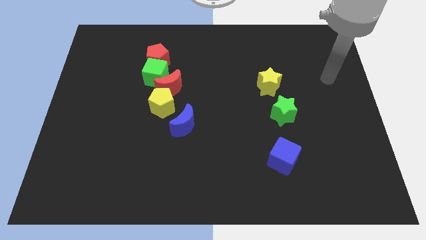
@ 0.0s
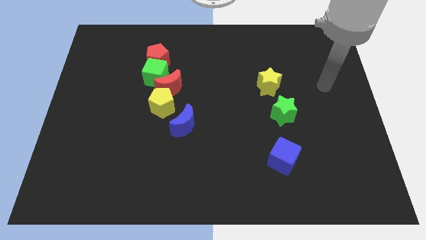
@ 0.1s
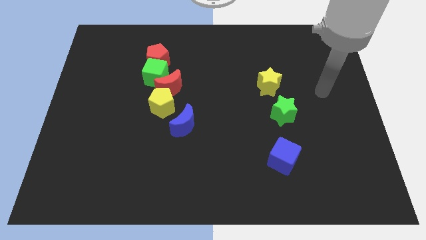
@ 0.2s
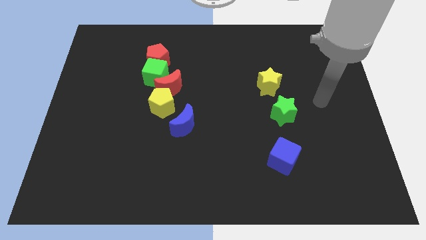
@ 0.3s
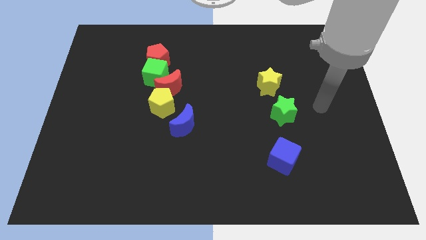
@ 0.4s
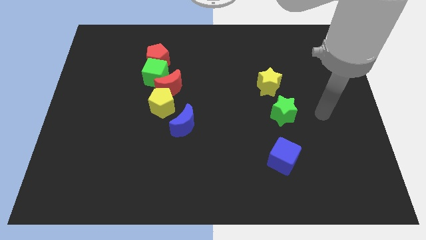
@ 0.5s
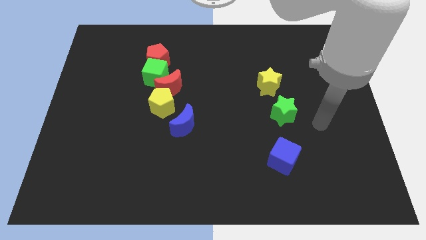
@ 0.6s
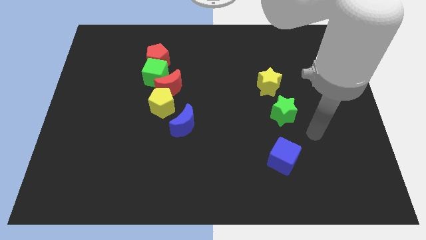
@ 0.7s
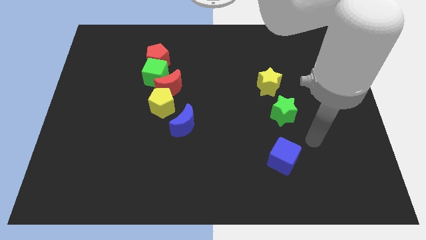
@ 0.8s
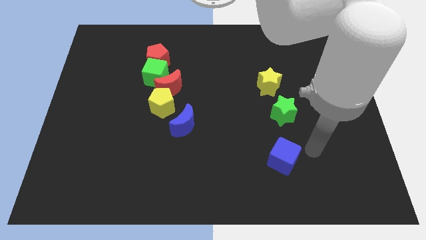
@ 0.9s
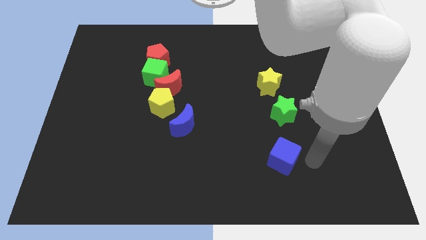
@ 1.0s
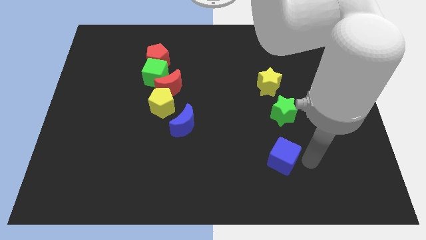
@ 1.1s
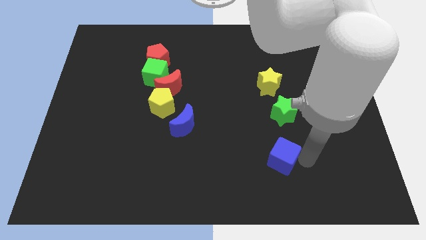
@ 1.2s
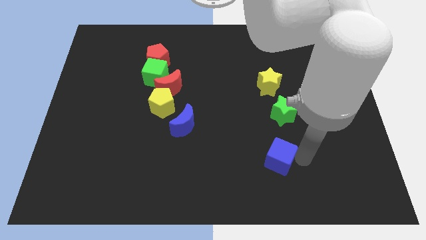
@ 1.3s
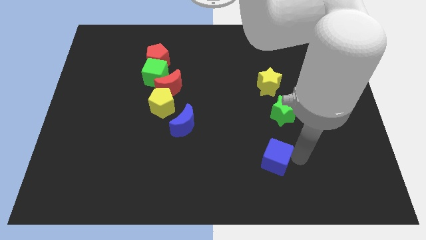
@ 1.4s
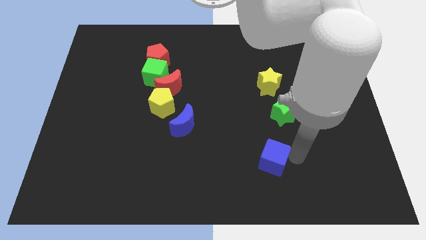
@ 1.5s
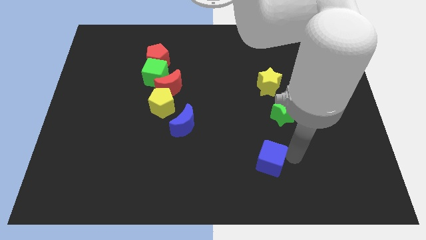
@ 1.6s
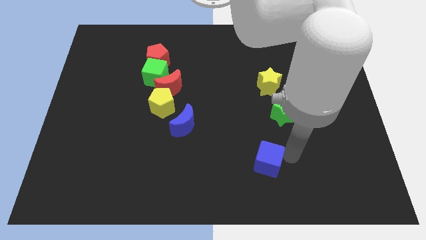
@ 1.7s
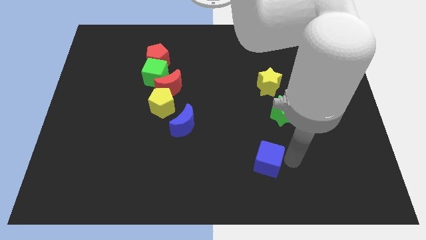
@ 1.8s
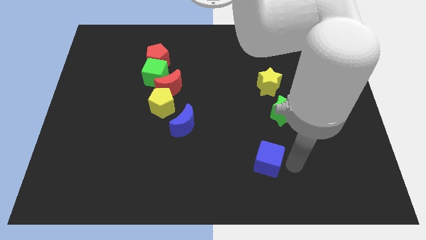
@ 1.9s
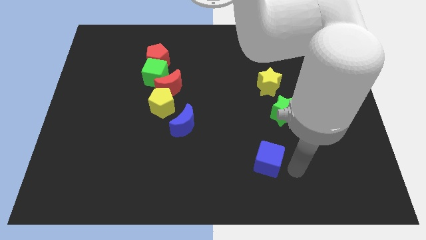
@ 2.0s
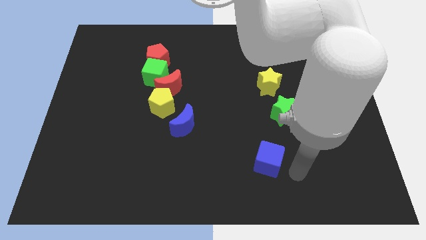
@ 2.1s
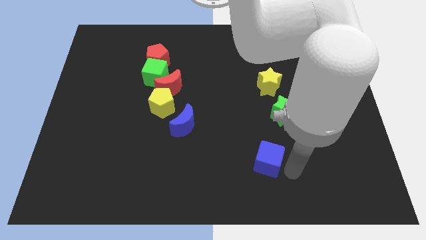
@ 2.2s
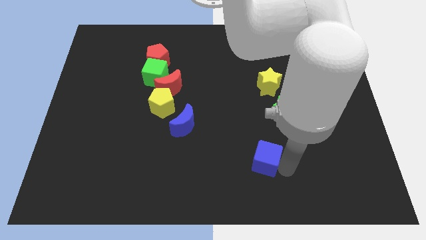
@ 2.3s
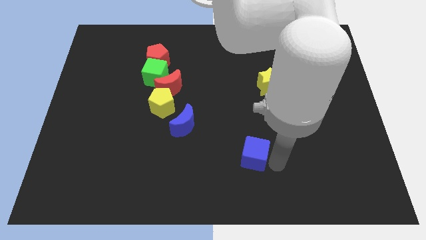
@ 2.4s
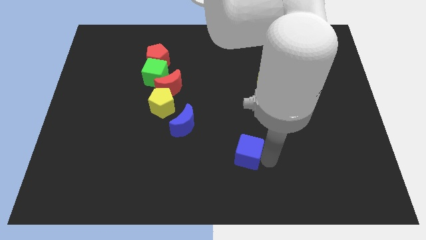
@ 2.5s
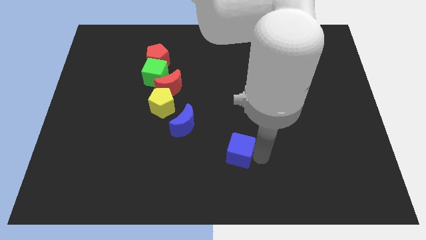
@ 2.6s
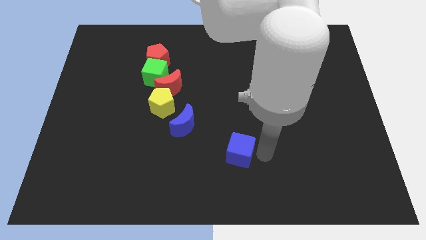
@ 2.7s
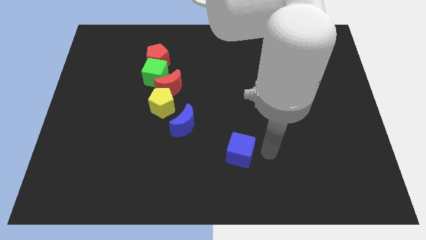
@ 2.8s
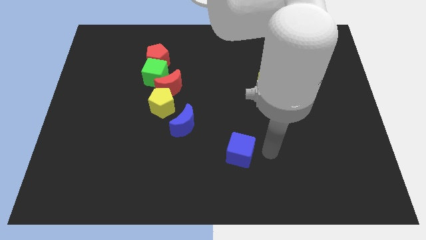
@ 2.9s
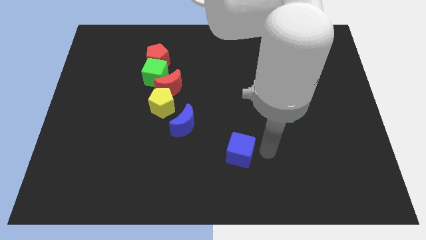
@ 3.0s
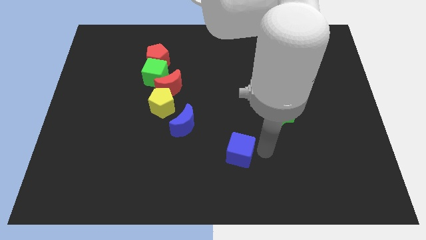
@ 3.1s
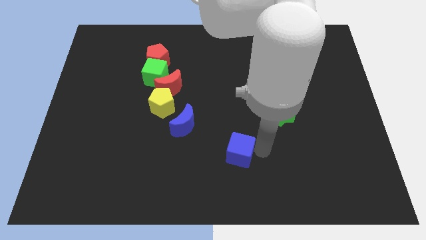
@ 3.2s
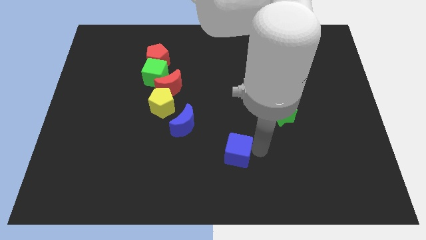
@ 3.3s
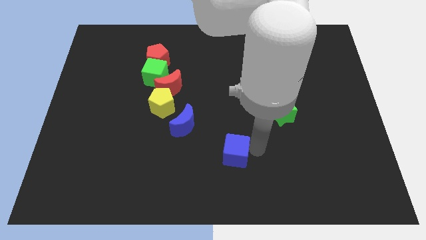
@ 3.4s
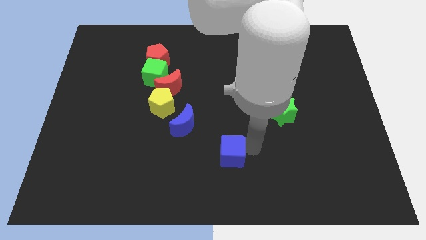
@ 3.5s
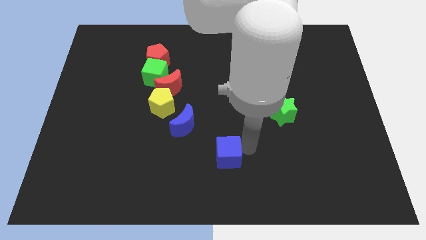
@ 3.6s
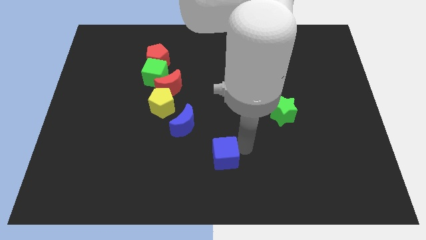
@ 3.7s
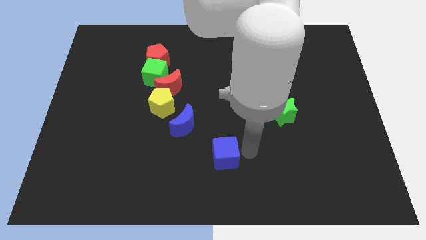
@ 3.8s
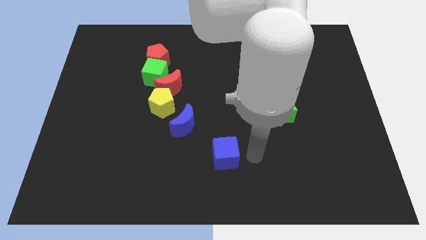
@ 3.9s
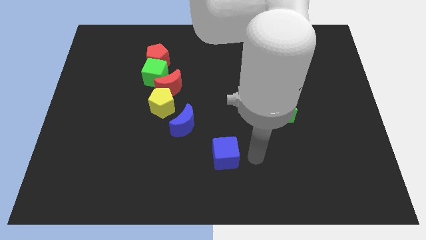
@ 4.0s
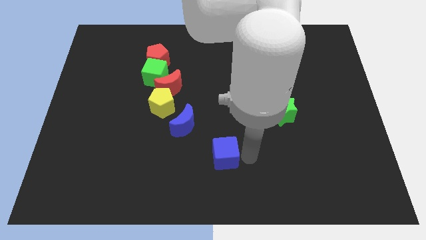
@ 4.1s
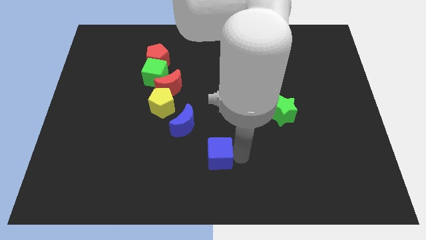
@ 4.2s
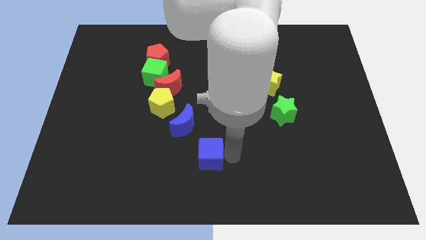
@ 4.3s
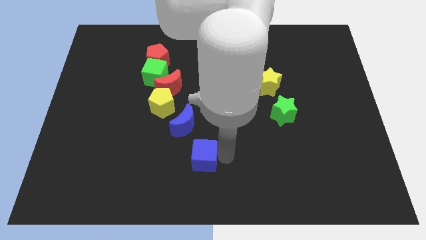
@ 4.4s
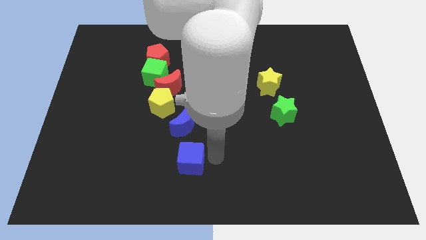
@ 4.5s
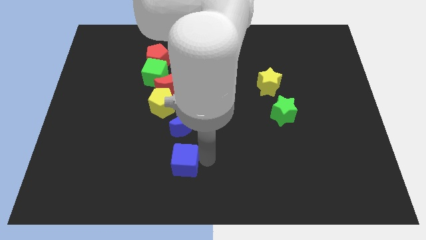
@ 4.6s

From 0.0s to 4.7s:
slide the blue cube to the left

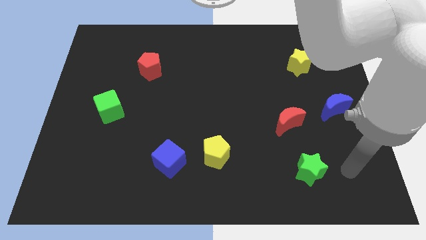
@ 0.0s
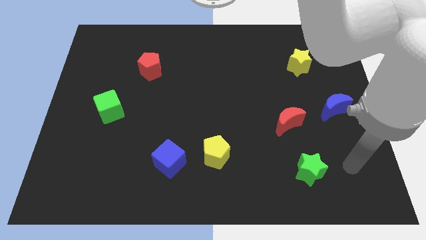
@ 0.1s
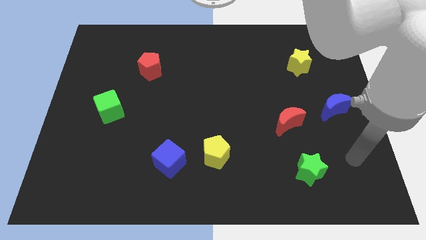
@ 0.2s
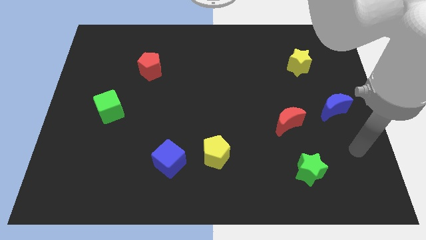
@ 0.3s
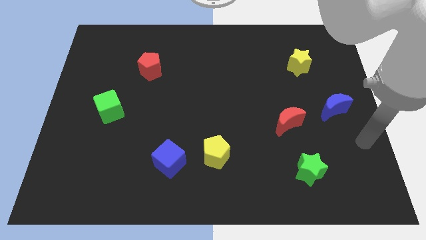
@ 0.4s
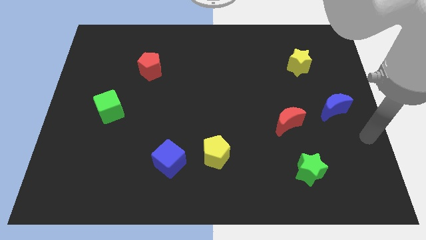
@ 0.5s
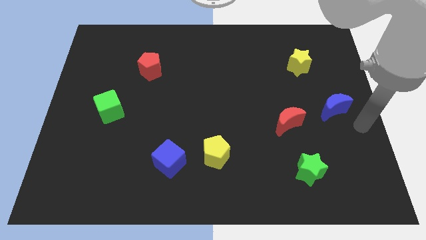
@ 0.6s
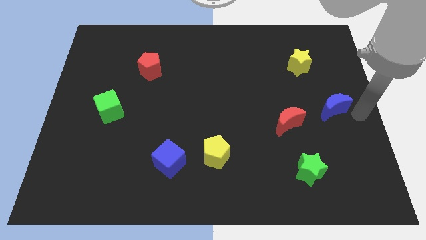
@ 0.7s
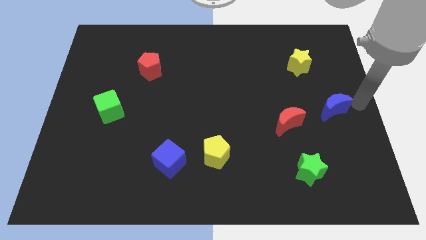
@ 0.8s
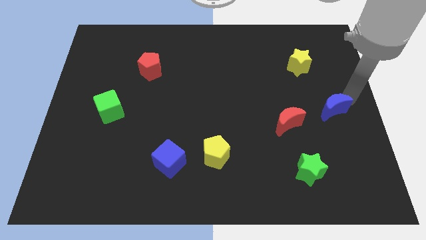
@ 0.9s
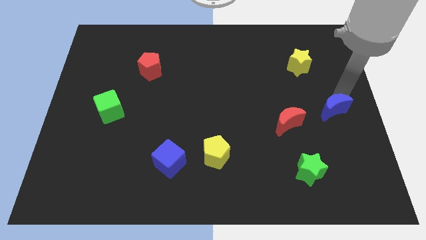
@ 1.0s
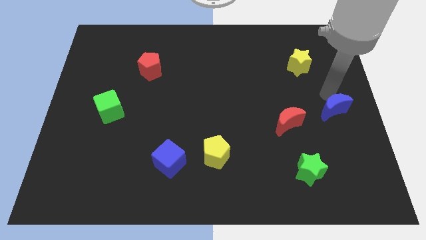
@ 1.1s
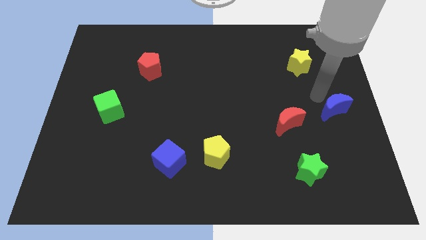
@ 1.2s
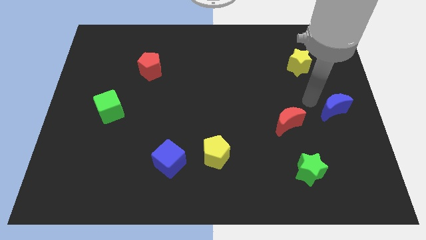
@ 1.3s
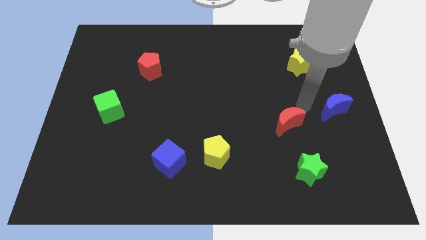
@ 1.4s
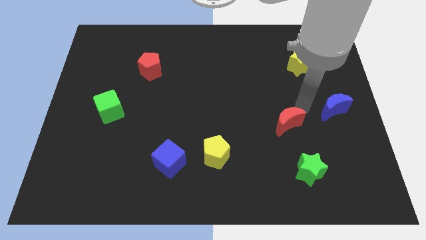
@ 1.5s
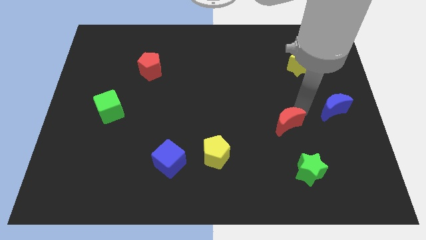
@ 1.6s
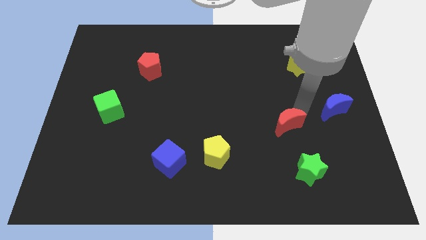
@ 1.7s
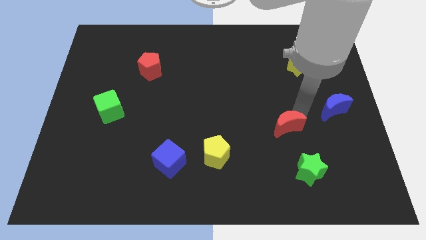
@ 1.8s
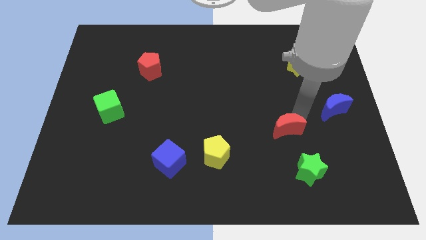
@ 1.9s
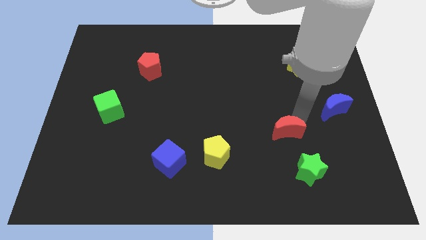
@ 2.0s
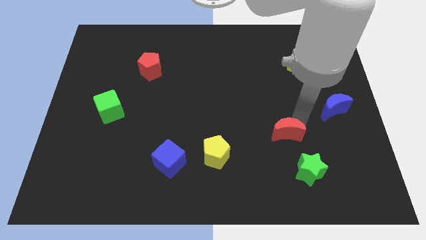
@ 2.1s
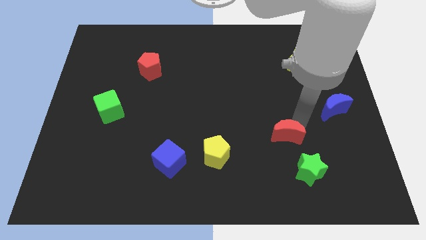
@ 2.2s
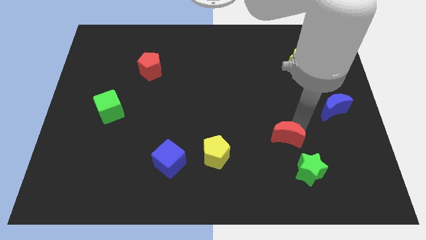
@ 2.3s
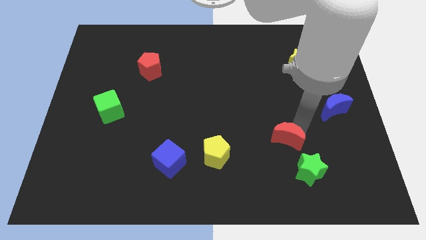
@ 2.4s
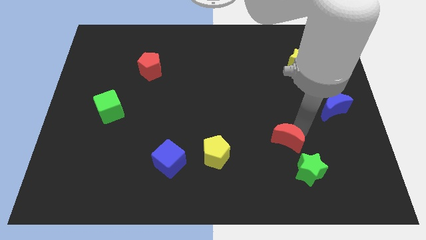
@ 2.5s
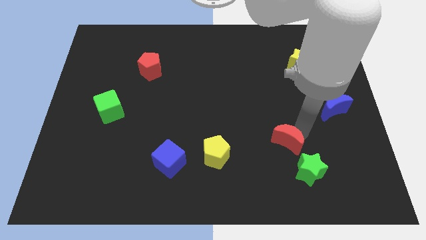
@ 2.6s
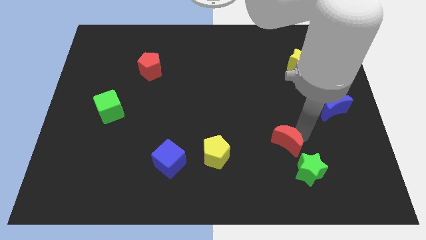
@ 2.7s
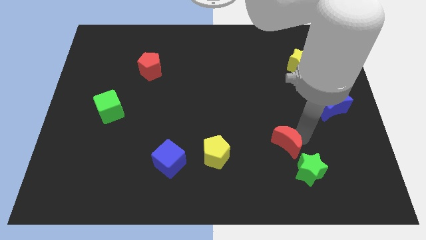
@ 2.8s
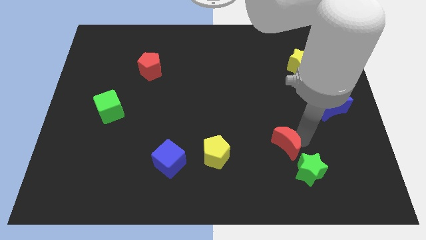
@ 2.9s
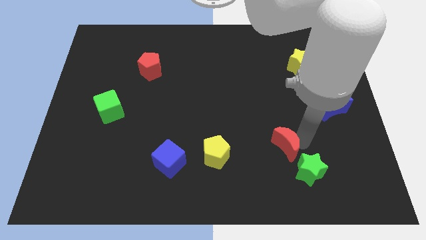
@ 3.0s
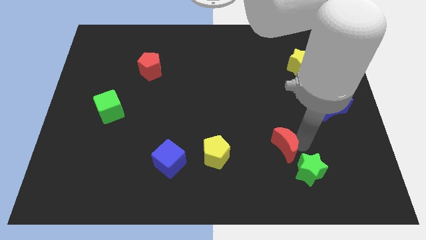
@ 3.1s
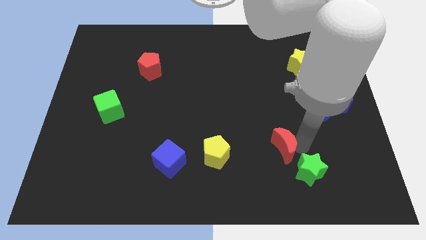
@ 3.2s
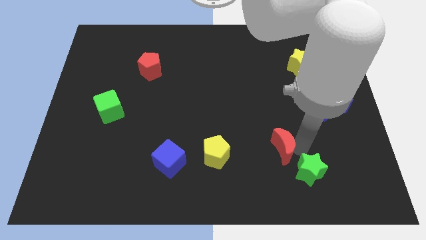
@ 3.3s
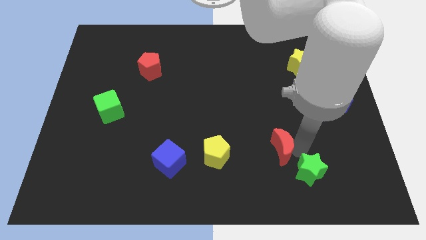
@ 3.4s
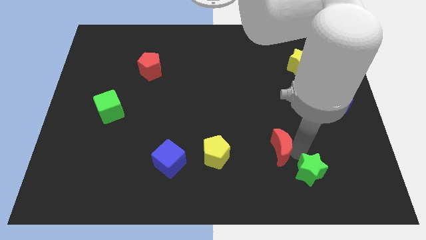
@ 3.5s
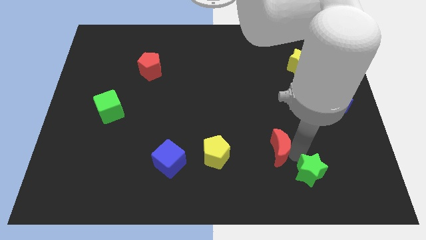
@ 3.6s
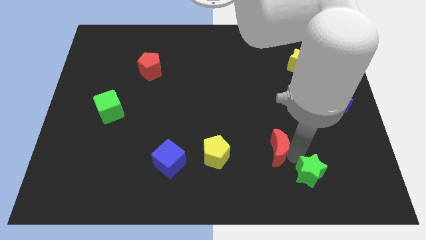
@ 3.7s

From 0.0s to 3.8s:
slightly push the red moon downwards and then left
